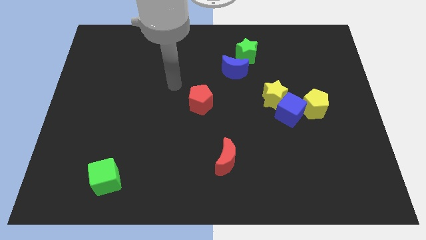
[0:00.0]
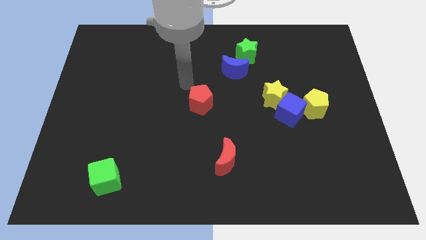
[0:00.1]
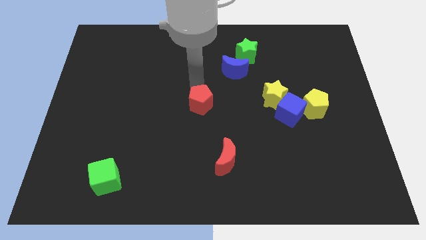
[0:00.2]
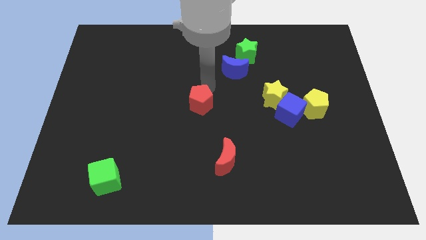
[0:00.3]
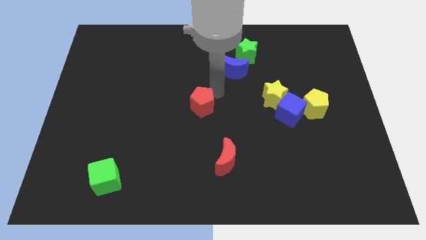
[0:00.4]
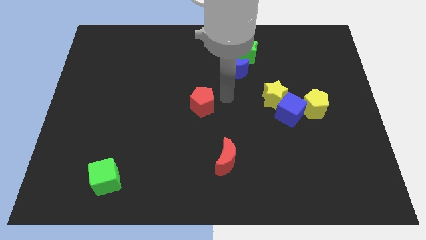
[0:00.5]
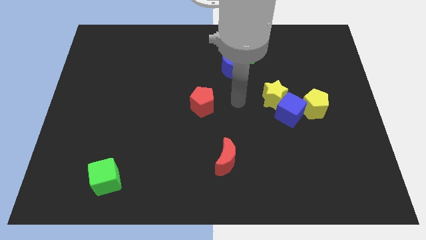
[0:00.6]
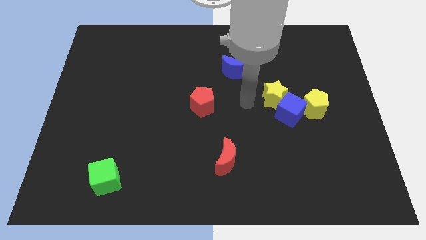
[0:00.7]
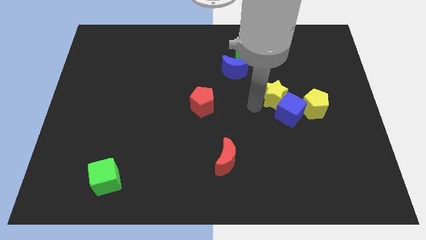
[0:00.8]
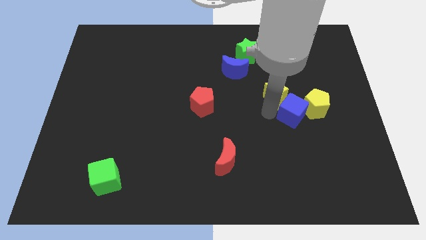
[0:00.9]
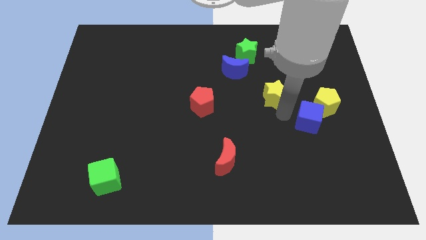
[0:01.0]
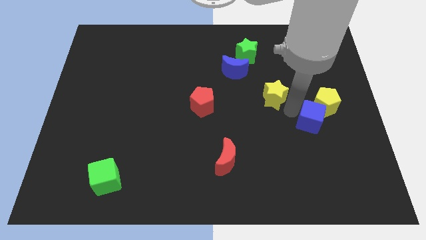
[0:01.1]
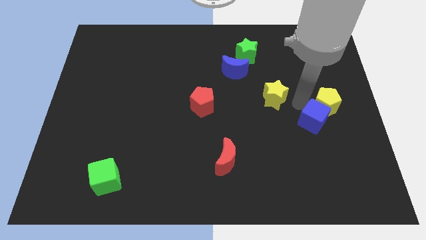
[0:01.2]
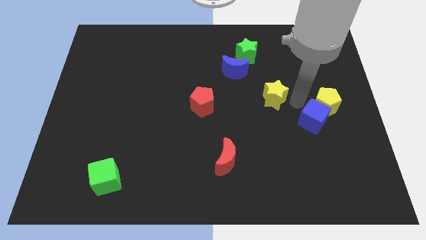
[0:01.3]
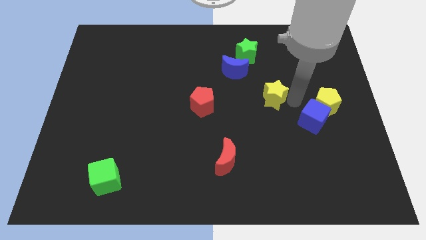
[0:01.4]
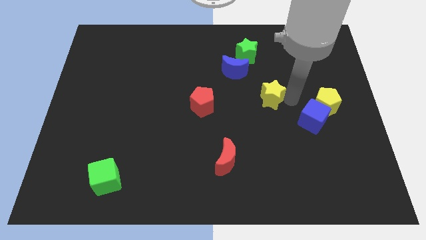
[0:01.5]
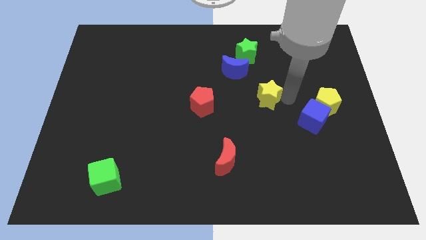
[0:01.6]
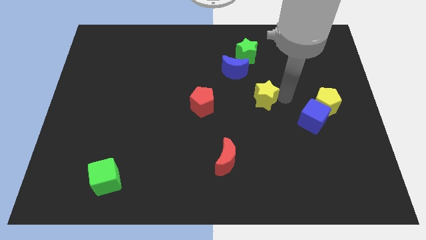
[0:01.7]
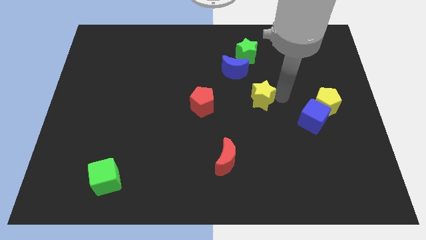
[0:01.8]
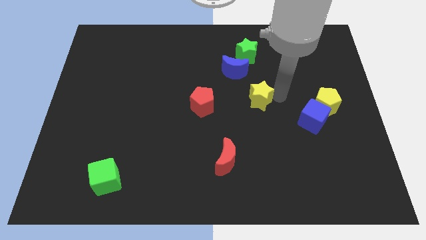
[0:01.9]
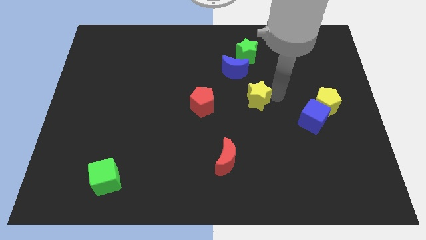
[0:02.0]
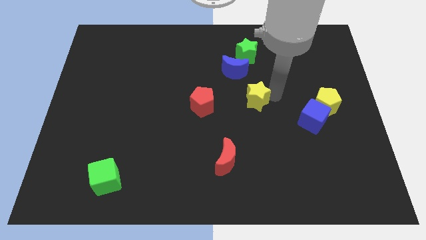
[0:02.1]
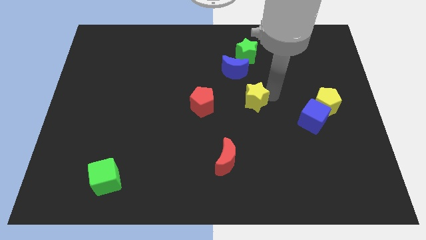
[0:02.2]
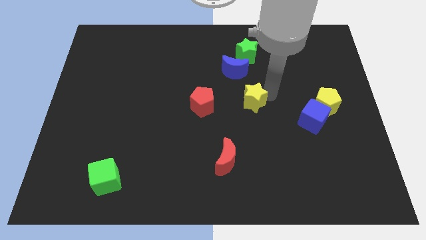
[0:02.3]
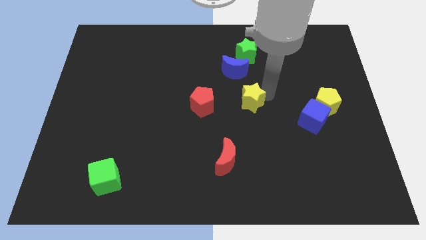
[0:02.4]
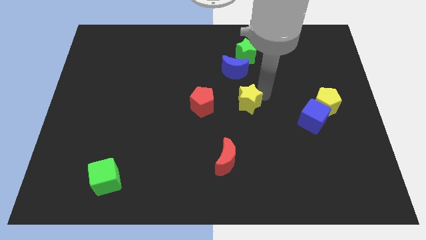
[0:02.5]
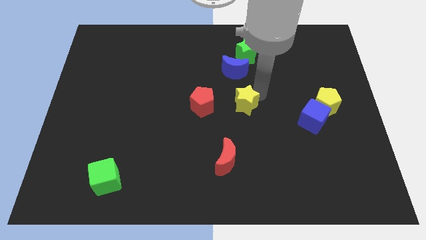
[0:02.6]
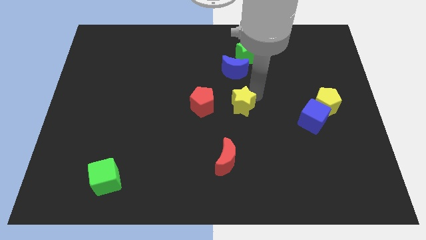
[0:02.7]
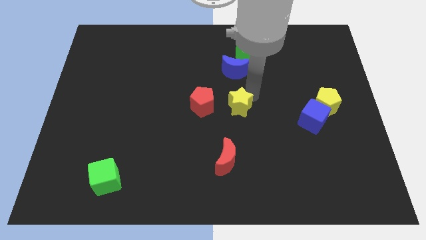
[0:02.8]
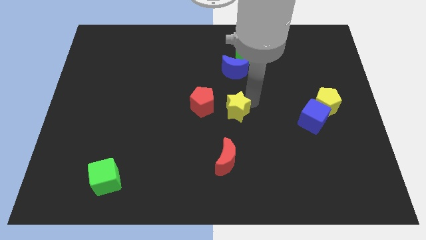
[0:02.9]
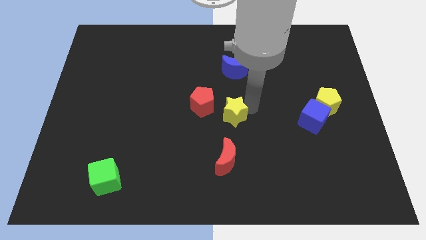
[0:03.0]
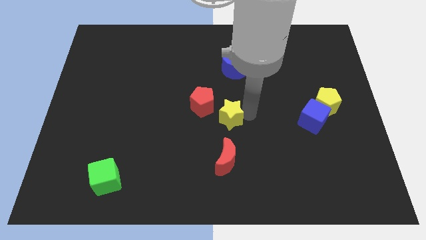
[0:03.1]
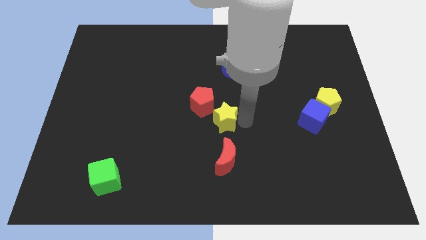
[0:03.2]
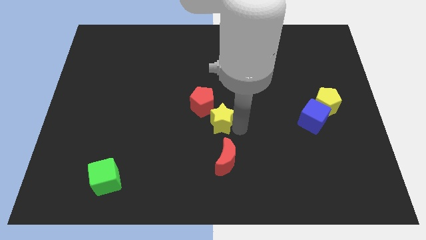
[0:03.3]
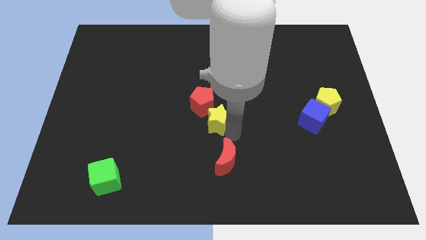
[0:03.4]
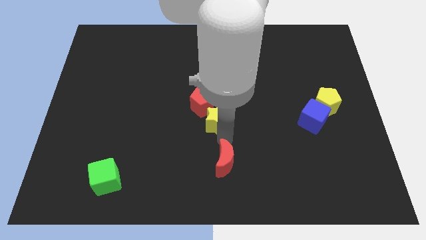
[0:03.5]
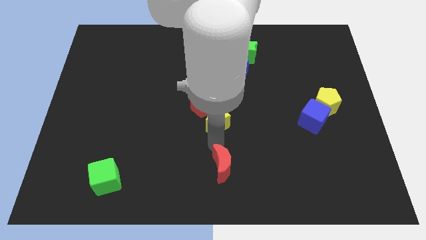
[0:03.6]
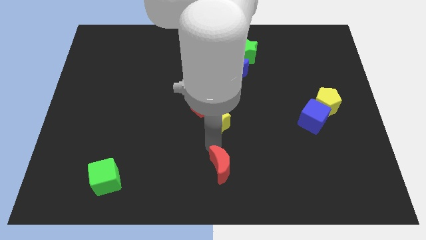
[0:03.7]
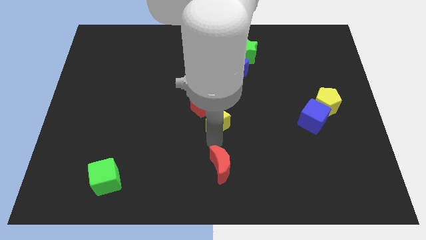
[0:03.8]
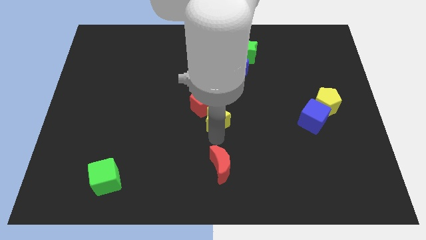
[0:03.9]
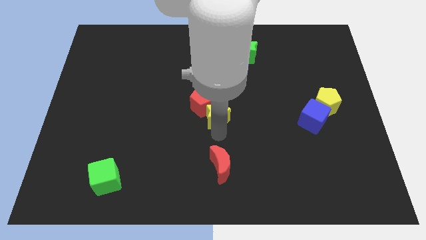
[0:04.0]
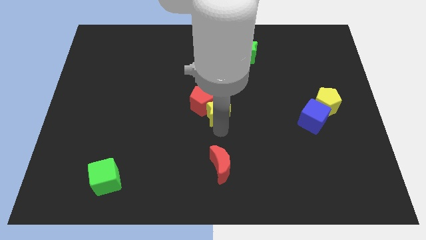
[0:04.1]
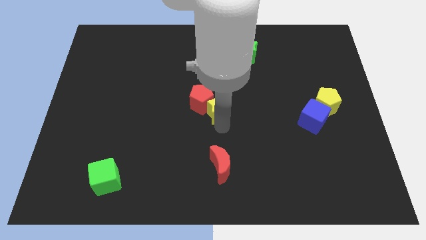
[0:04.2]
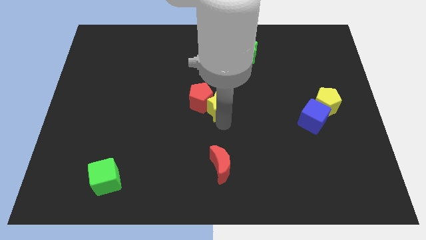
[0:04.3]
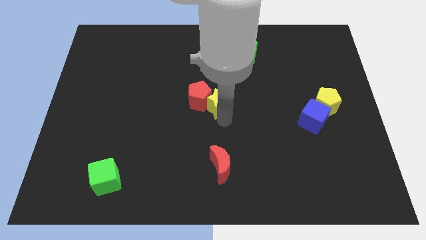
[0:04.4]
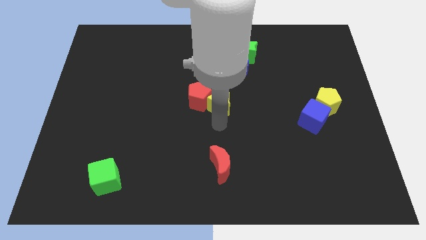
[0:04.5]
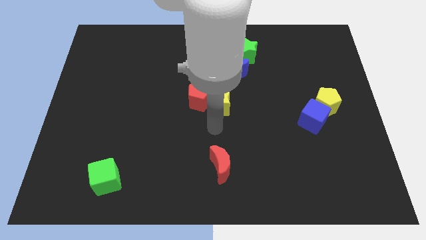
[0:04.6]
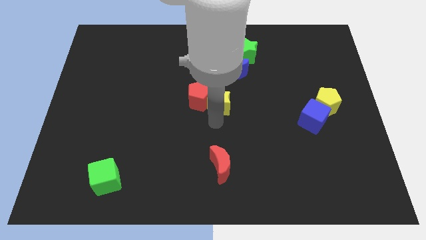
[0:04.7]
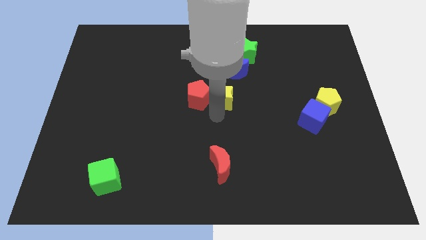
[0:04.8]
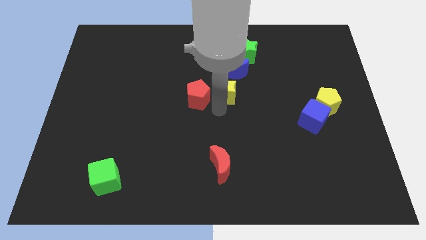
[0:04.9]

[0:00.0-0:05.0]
push the yellow star diagonally up and to the left slightly

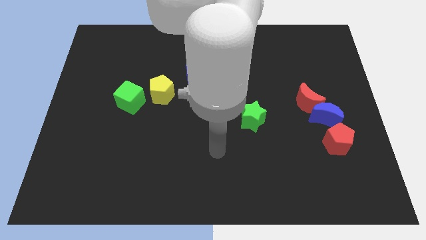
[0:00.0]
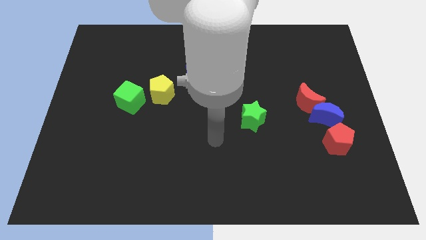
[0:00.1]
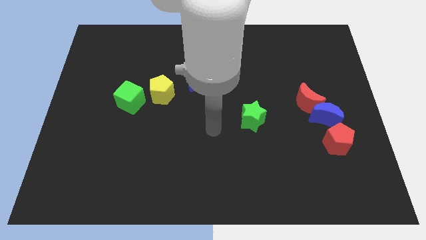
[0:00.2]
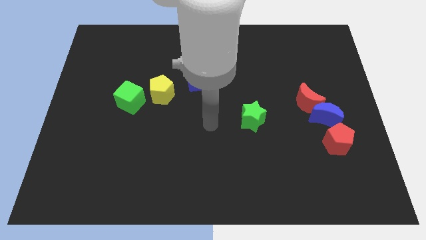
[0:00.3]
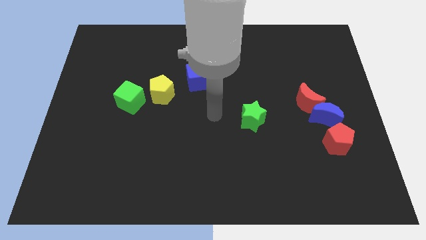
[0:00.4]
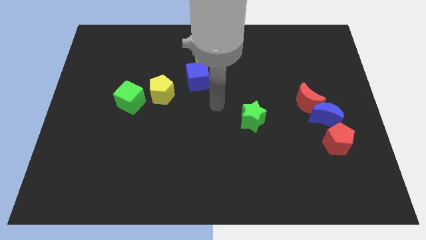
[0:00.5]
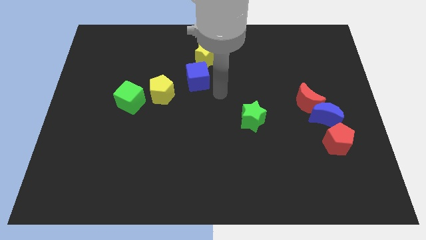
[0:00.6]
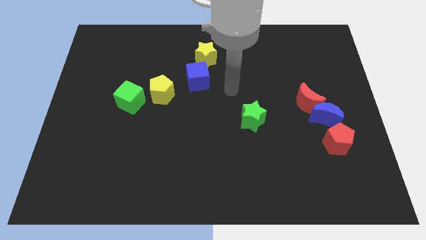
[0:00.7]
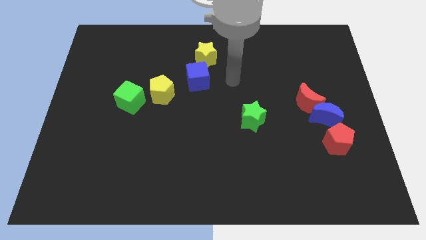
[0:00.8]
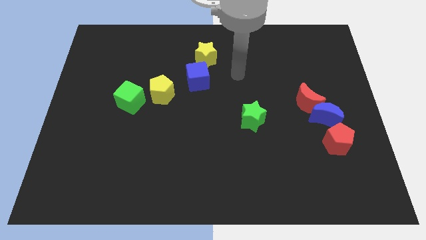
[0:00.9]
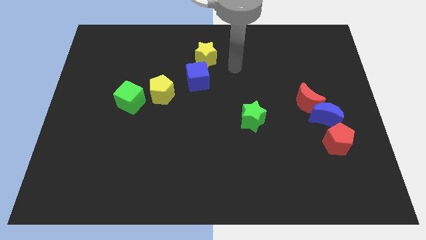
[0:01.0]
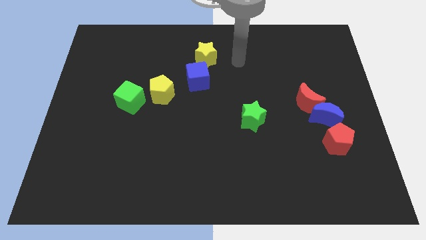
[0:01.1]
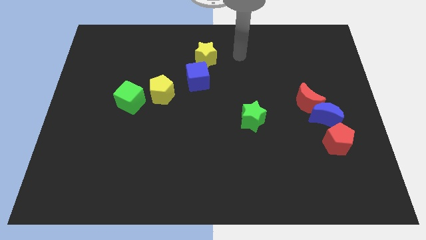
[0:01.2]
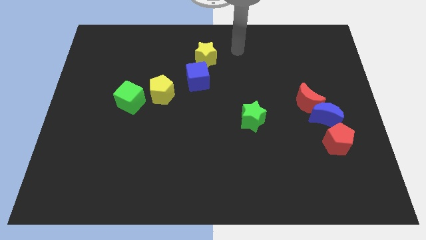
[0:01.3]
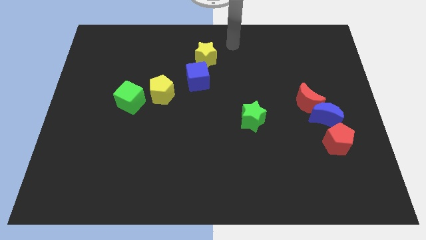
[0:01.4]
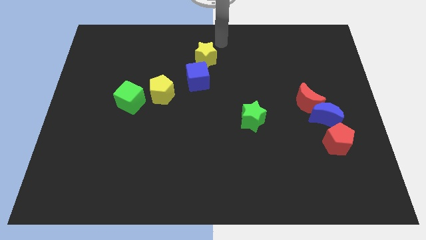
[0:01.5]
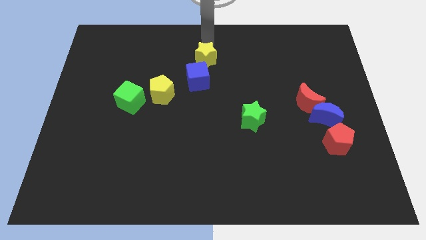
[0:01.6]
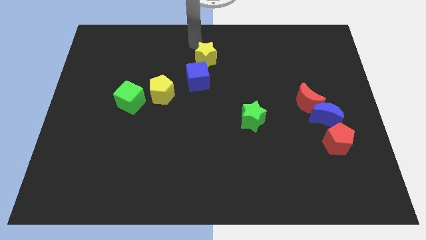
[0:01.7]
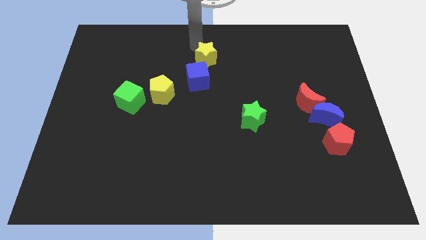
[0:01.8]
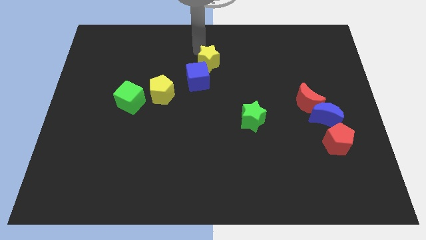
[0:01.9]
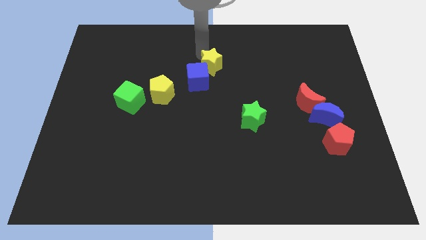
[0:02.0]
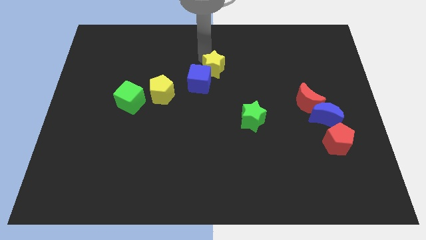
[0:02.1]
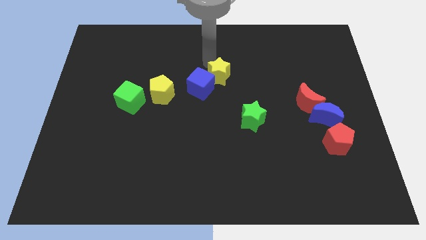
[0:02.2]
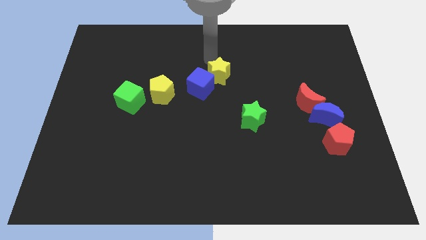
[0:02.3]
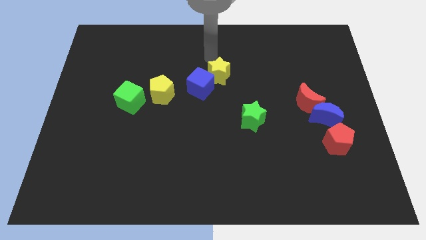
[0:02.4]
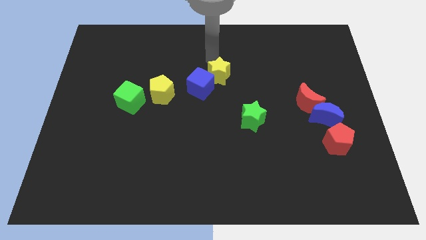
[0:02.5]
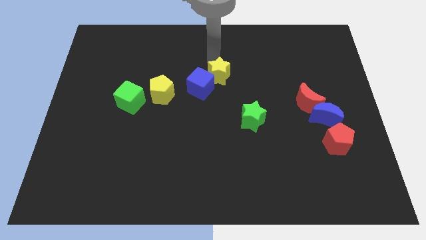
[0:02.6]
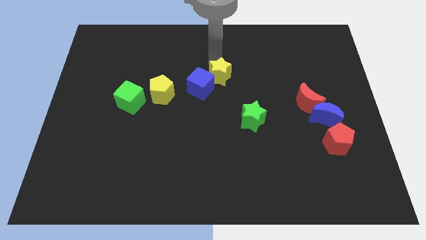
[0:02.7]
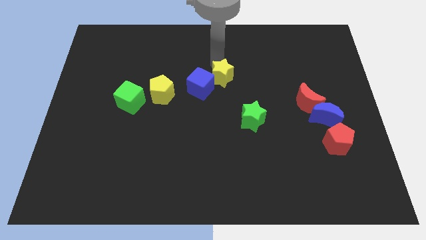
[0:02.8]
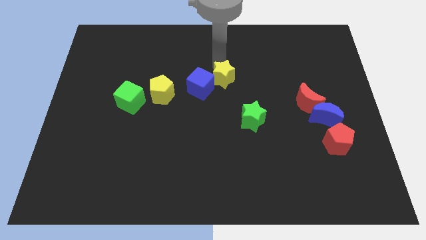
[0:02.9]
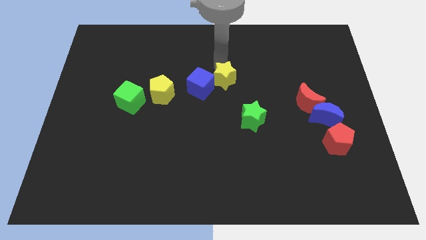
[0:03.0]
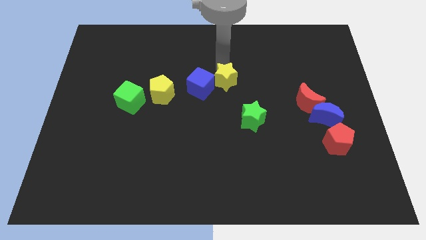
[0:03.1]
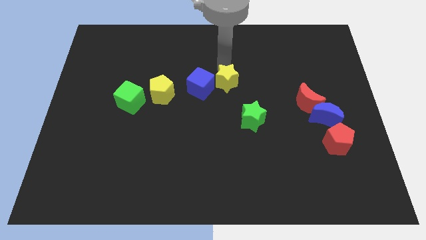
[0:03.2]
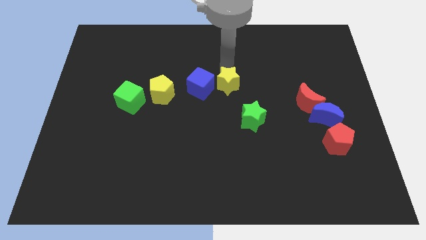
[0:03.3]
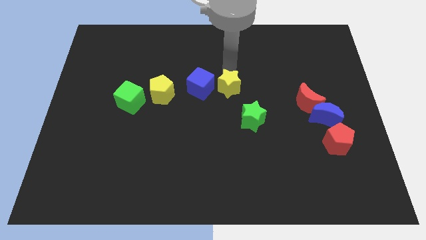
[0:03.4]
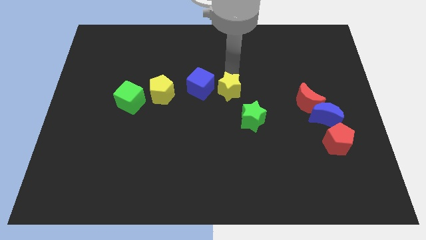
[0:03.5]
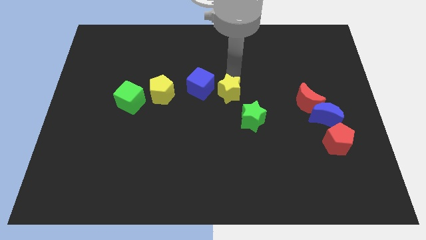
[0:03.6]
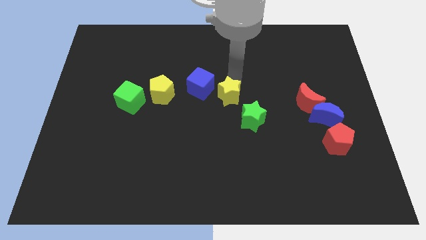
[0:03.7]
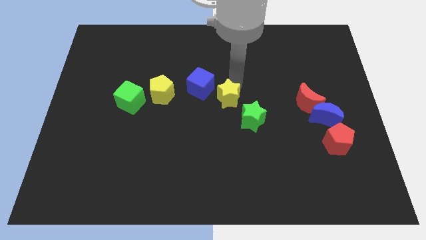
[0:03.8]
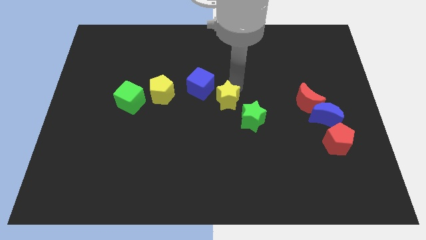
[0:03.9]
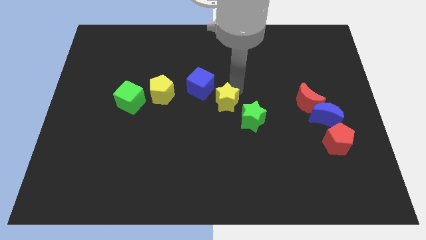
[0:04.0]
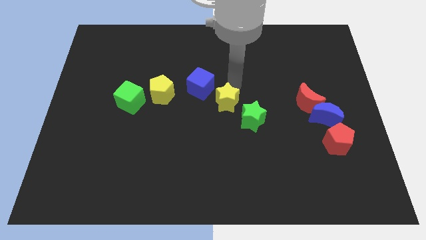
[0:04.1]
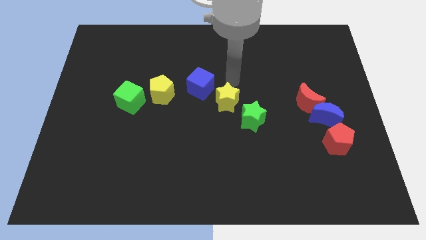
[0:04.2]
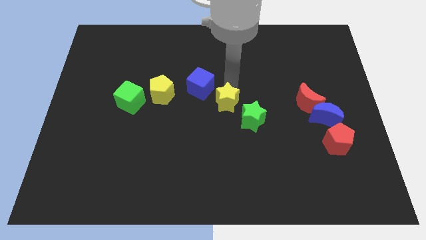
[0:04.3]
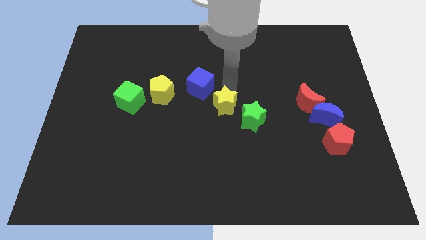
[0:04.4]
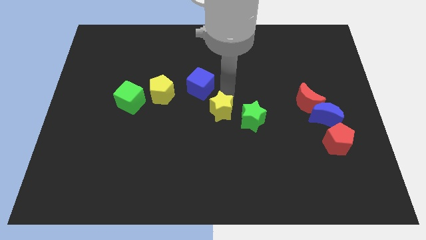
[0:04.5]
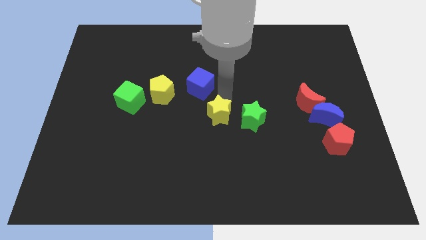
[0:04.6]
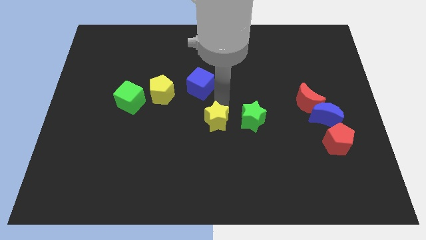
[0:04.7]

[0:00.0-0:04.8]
move the yellow star downwards
